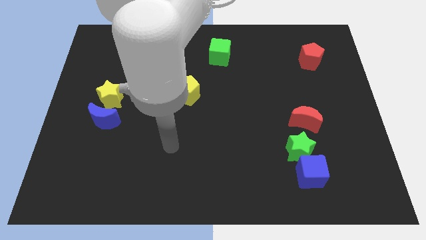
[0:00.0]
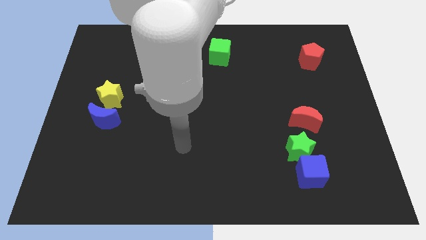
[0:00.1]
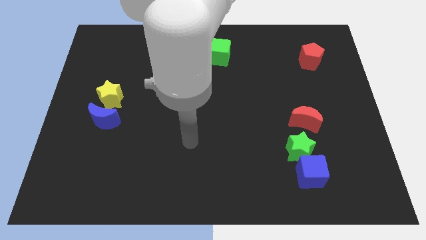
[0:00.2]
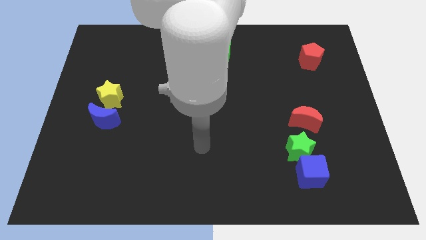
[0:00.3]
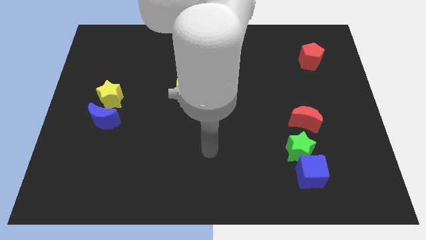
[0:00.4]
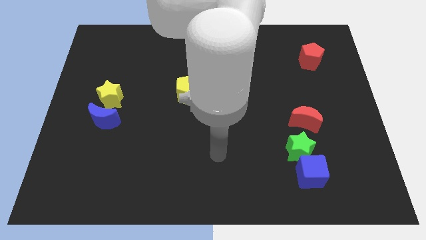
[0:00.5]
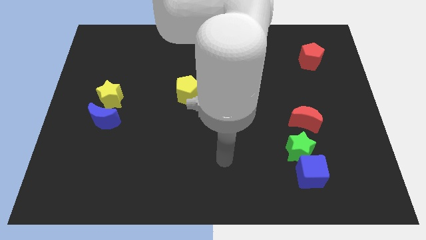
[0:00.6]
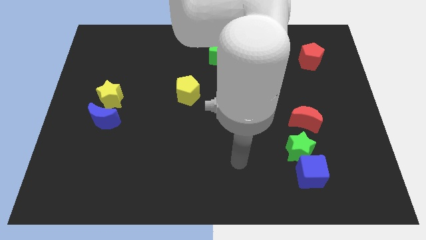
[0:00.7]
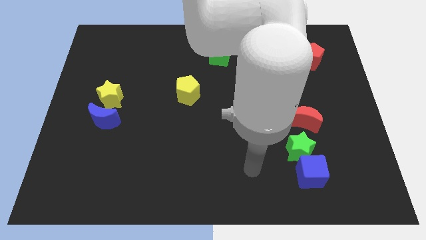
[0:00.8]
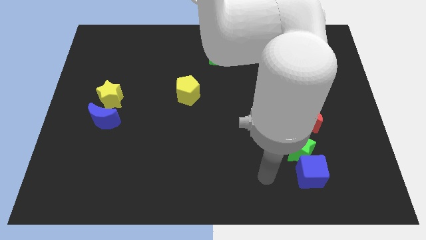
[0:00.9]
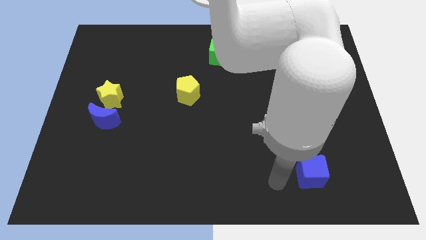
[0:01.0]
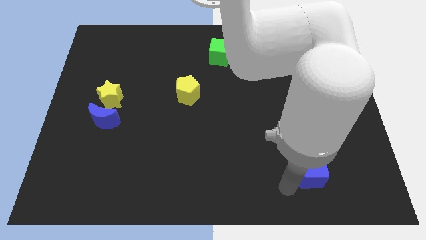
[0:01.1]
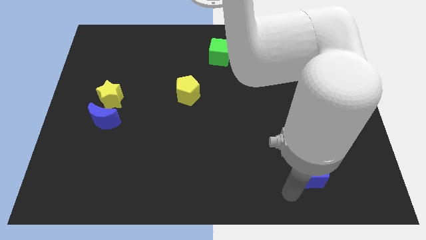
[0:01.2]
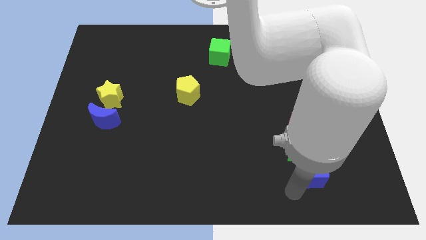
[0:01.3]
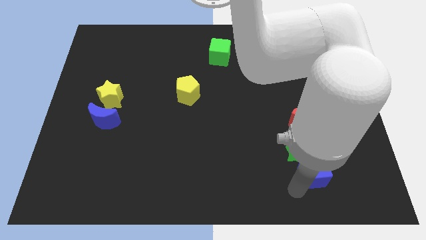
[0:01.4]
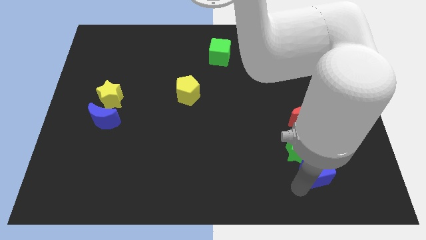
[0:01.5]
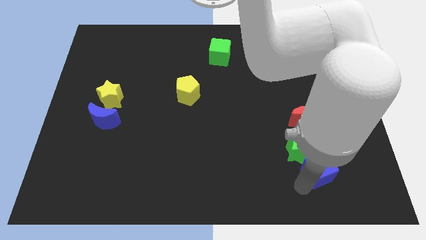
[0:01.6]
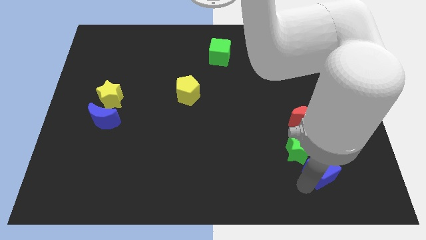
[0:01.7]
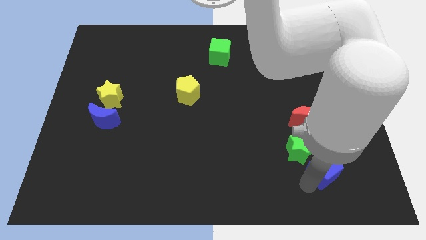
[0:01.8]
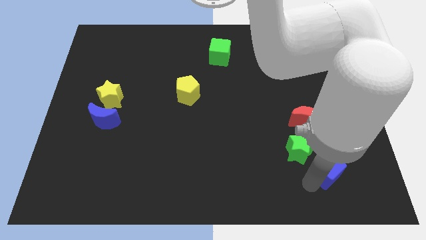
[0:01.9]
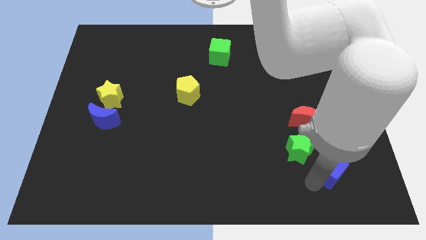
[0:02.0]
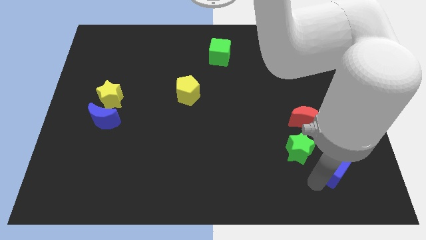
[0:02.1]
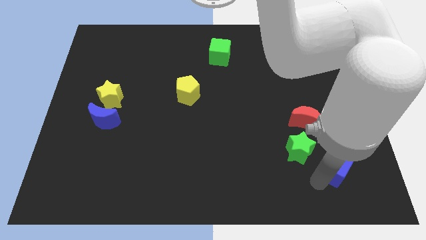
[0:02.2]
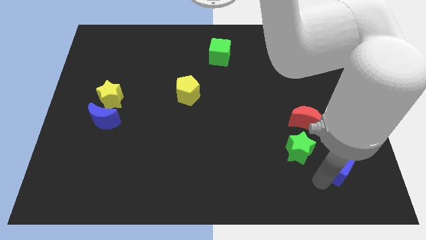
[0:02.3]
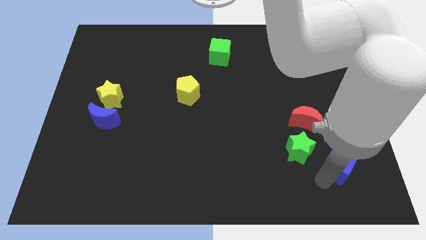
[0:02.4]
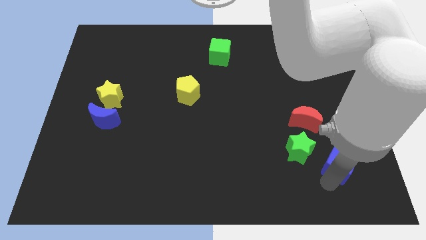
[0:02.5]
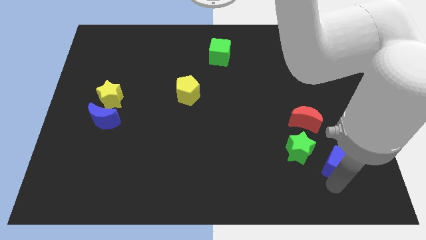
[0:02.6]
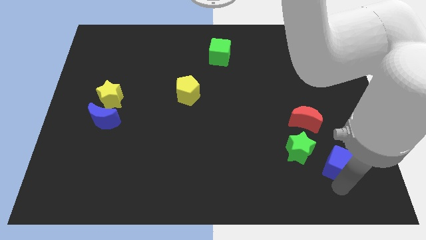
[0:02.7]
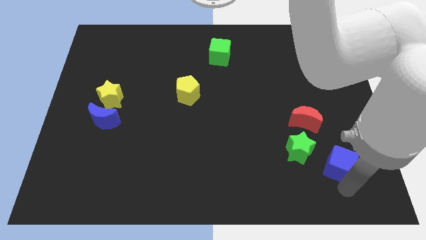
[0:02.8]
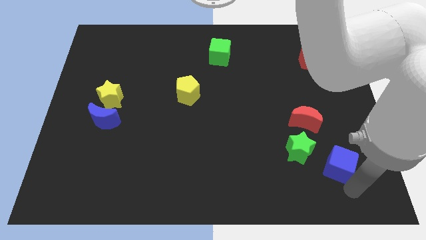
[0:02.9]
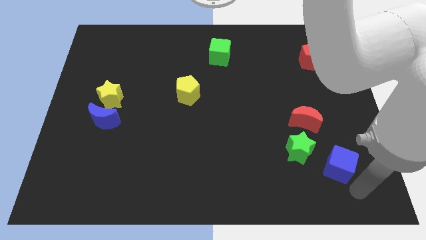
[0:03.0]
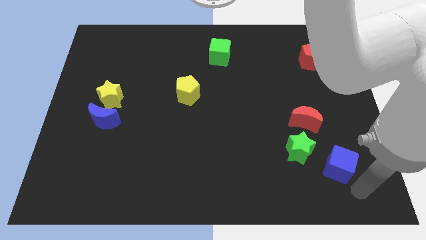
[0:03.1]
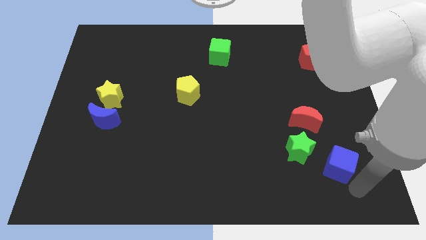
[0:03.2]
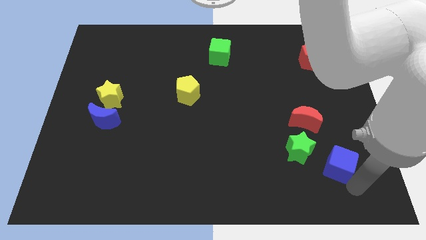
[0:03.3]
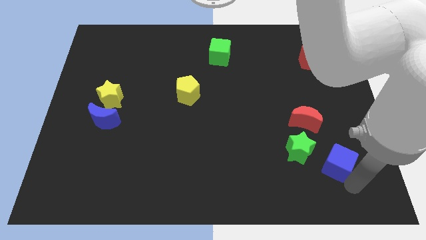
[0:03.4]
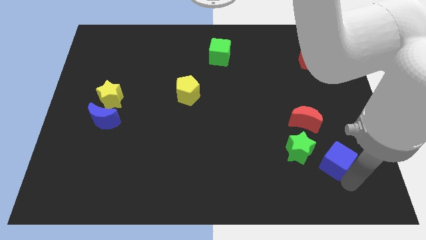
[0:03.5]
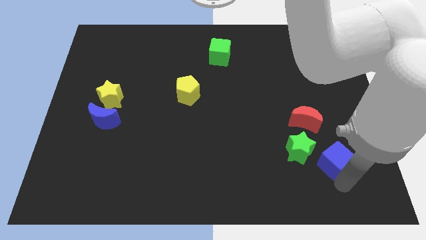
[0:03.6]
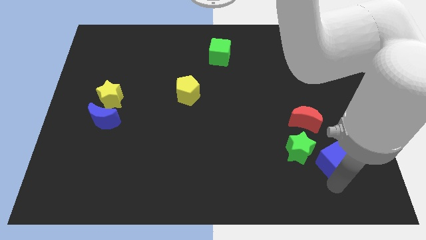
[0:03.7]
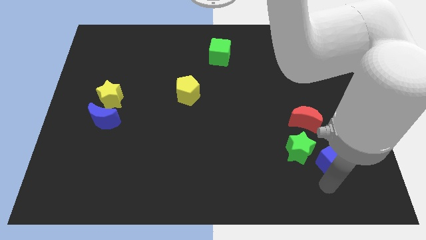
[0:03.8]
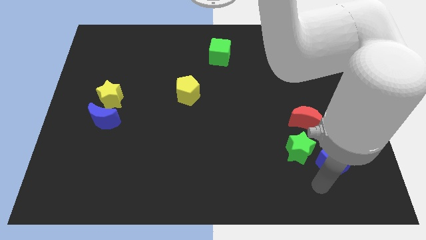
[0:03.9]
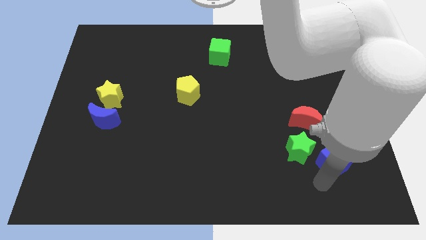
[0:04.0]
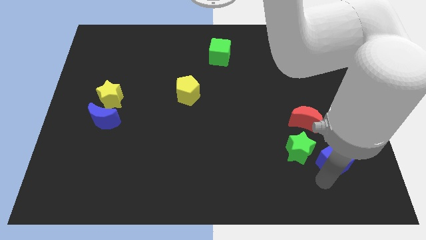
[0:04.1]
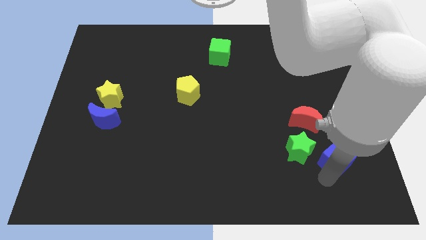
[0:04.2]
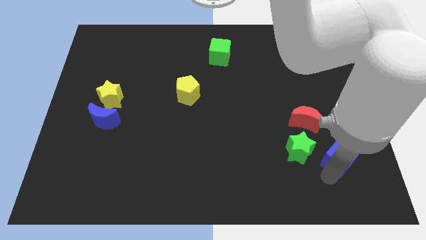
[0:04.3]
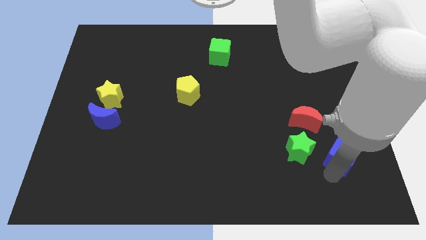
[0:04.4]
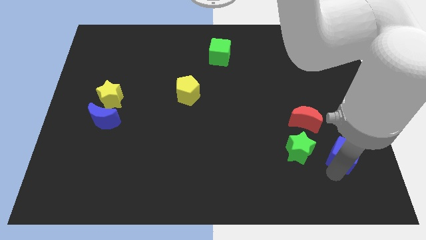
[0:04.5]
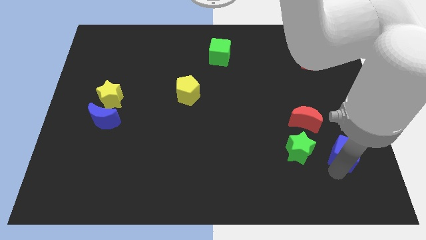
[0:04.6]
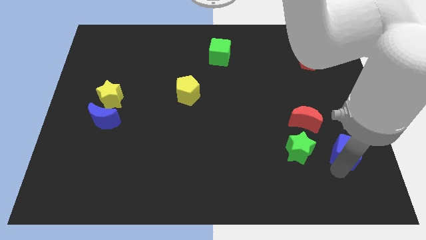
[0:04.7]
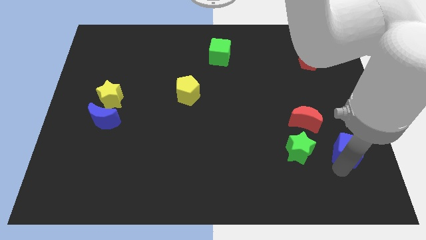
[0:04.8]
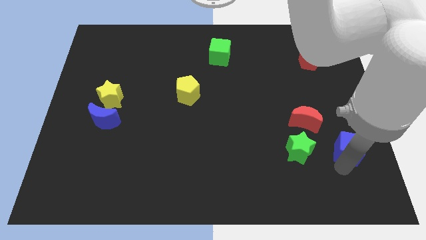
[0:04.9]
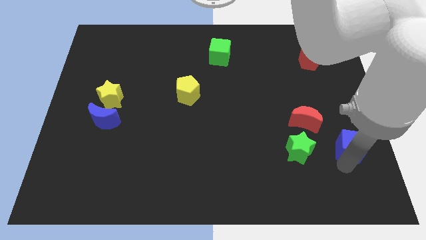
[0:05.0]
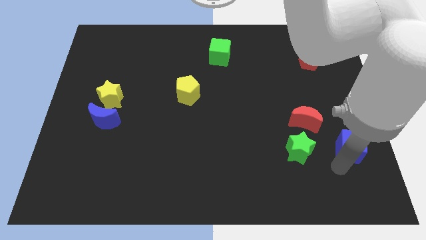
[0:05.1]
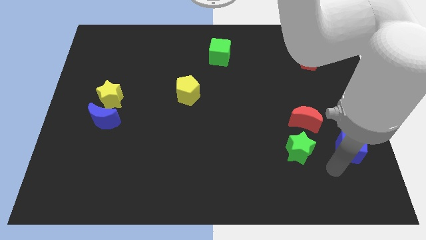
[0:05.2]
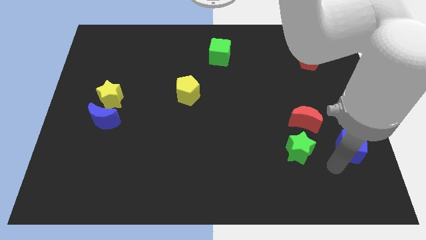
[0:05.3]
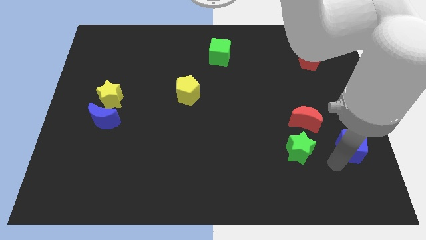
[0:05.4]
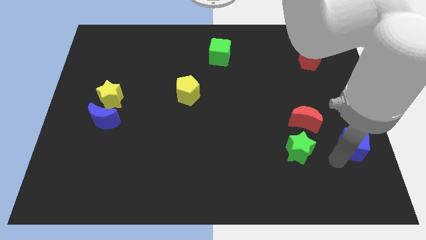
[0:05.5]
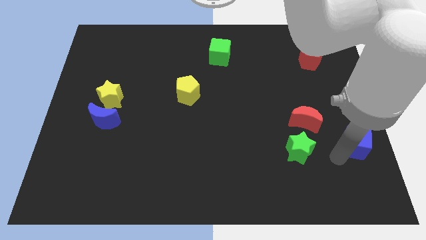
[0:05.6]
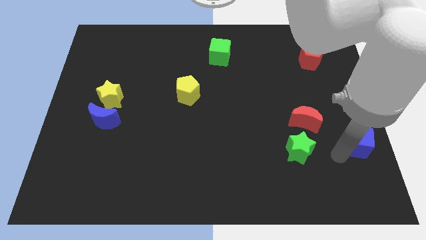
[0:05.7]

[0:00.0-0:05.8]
put the blue cube to the right side

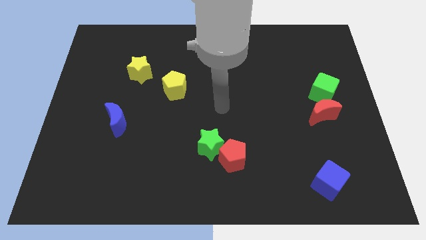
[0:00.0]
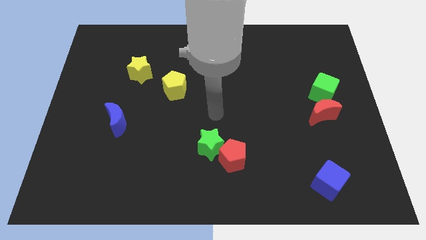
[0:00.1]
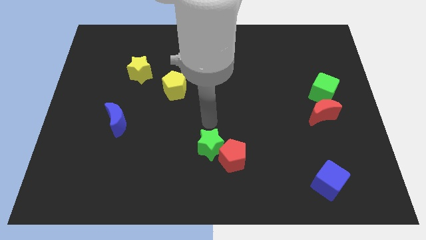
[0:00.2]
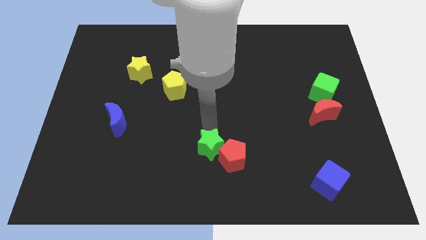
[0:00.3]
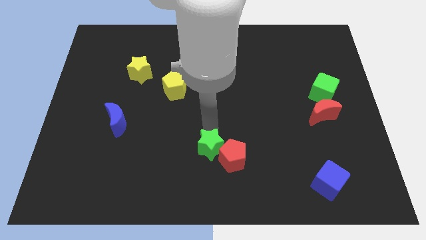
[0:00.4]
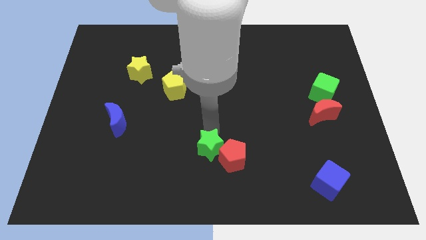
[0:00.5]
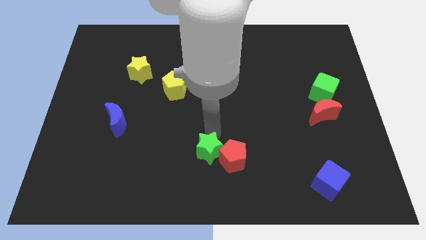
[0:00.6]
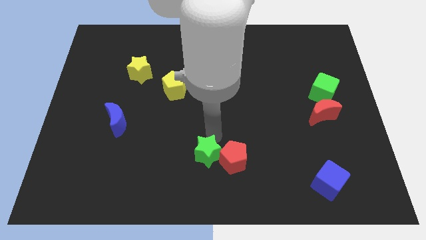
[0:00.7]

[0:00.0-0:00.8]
push the green star to the bottom side
